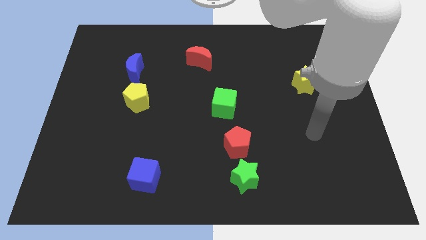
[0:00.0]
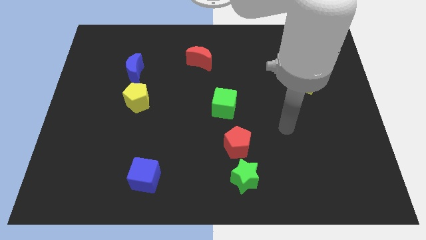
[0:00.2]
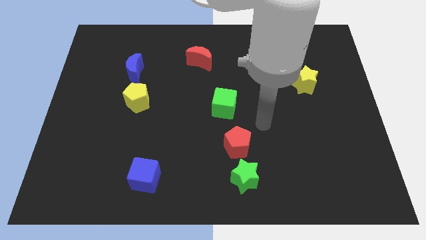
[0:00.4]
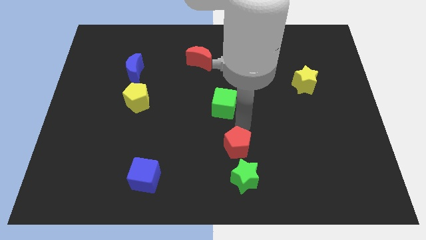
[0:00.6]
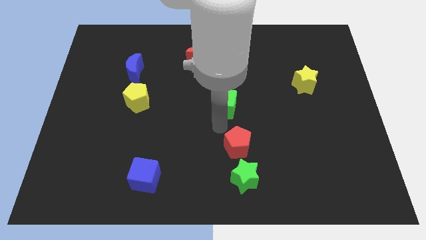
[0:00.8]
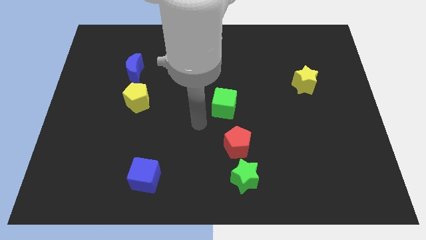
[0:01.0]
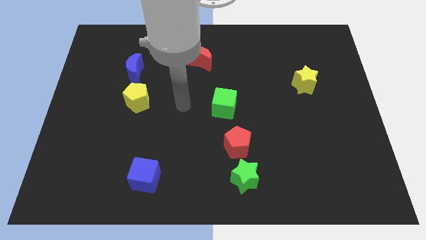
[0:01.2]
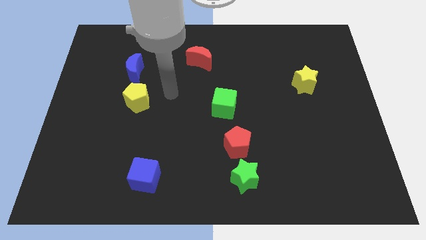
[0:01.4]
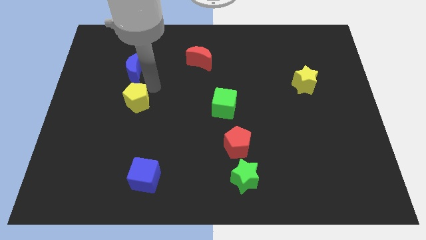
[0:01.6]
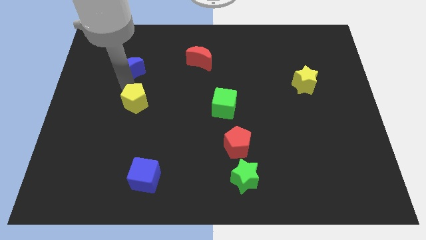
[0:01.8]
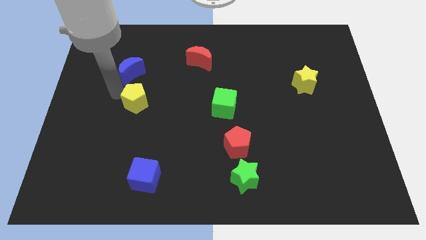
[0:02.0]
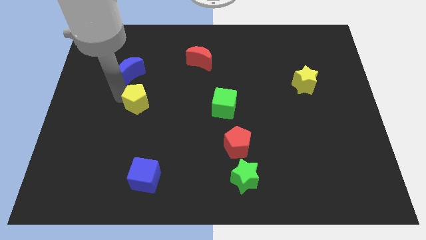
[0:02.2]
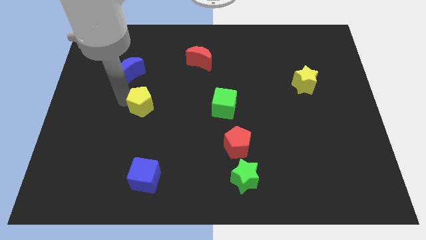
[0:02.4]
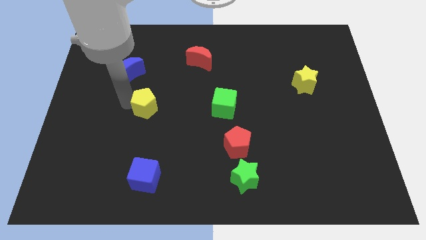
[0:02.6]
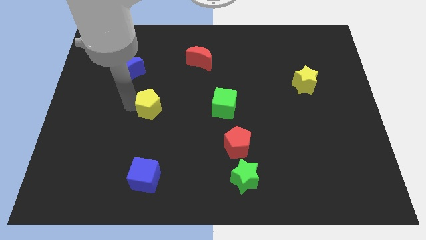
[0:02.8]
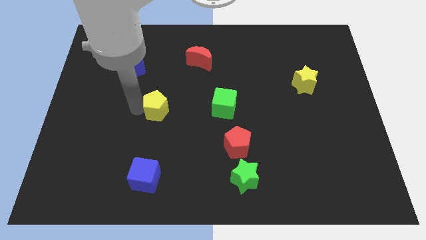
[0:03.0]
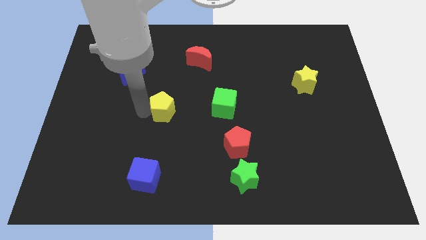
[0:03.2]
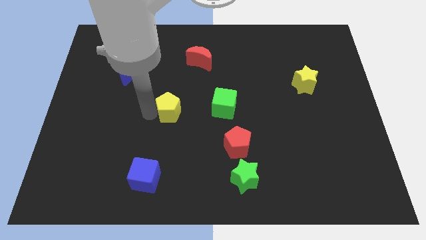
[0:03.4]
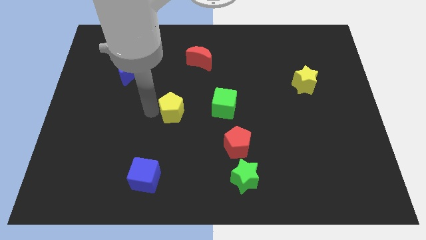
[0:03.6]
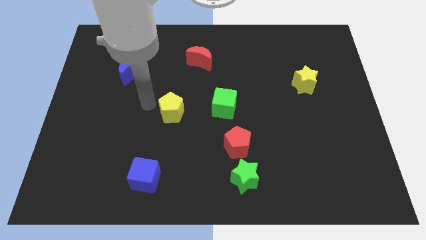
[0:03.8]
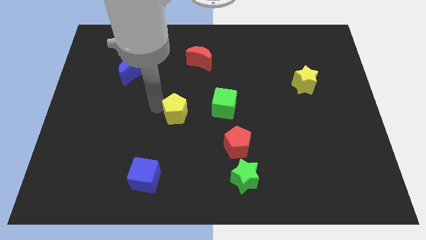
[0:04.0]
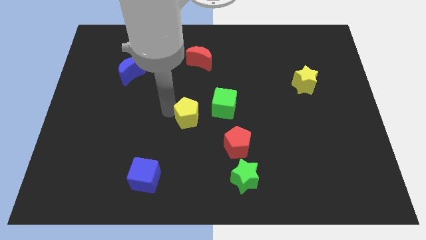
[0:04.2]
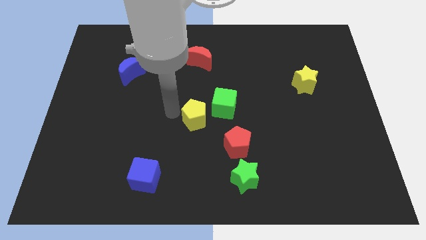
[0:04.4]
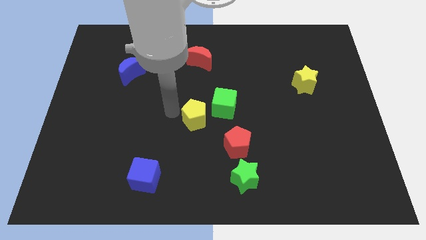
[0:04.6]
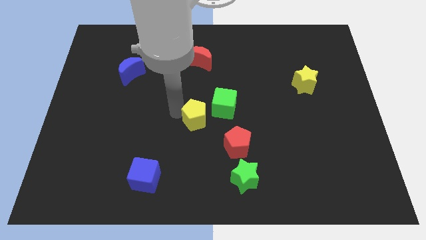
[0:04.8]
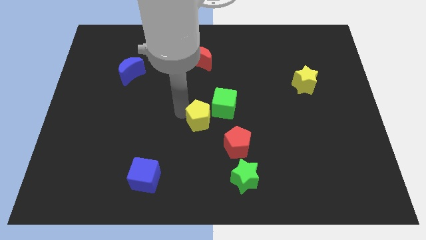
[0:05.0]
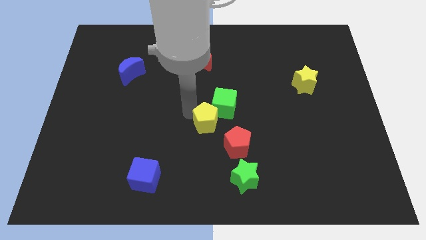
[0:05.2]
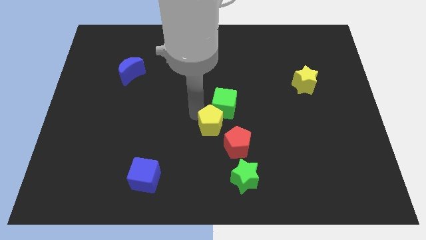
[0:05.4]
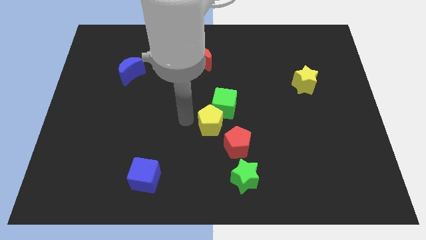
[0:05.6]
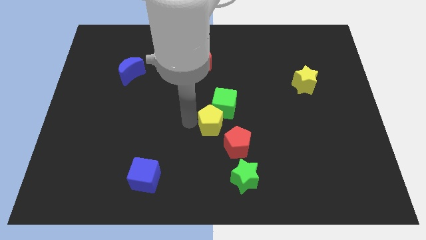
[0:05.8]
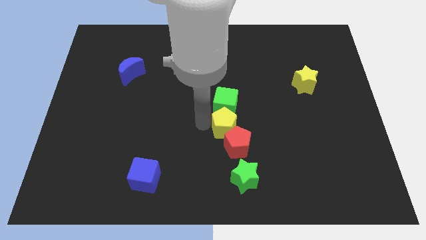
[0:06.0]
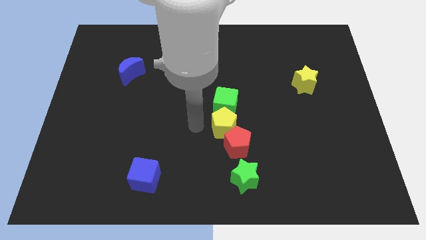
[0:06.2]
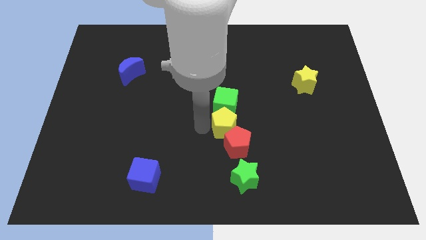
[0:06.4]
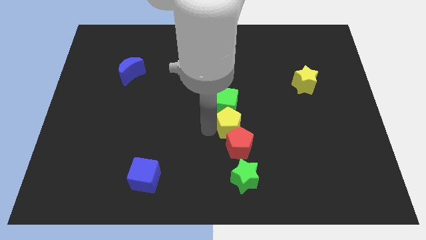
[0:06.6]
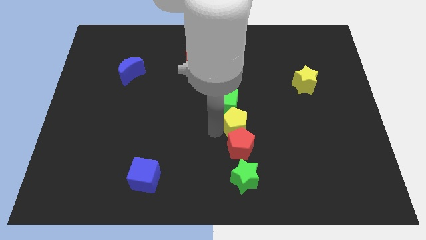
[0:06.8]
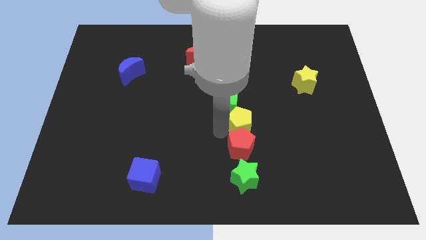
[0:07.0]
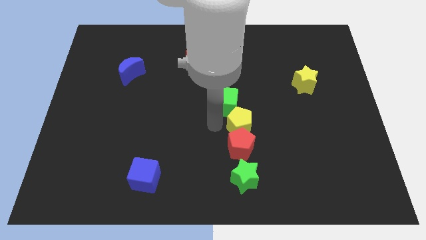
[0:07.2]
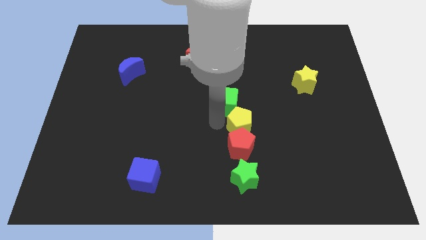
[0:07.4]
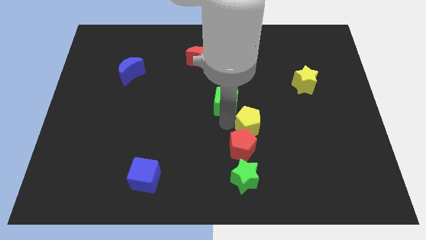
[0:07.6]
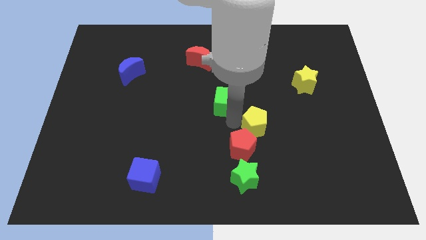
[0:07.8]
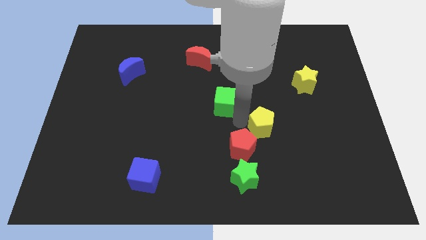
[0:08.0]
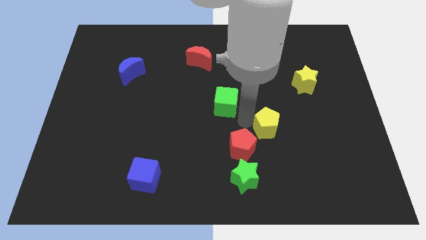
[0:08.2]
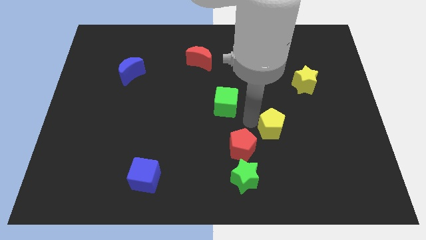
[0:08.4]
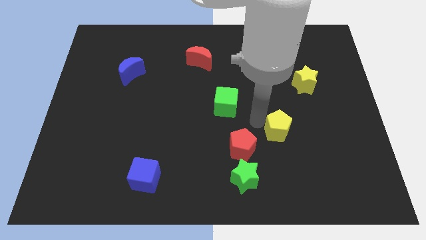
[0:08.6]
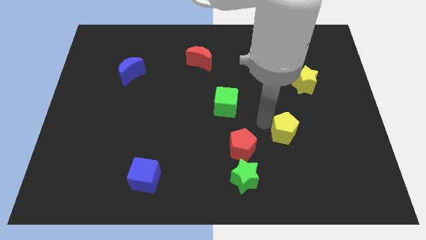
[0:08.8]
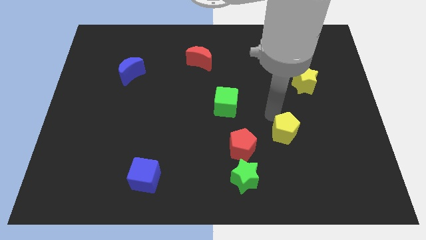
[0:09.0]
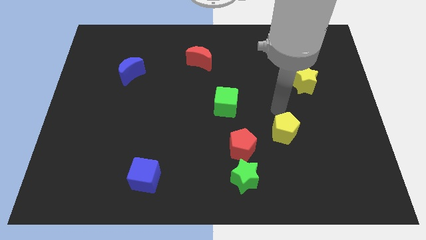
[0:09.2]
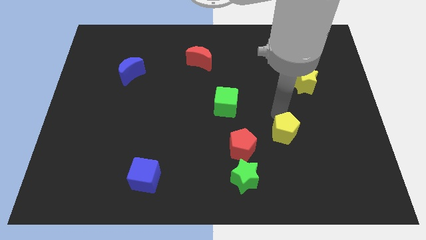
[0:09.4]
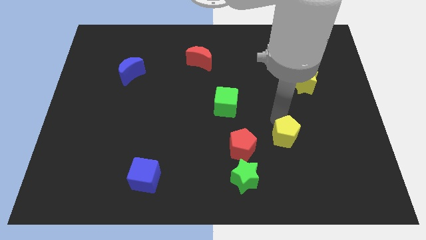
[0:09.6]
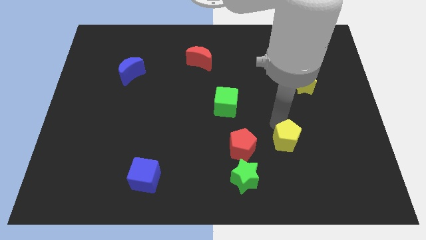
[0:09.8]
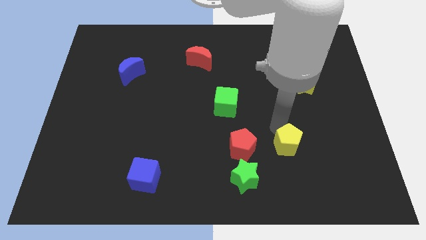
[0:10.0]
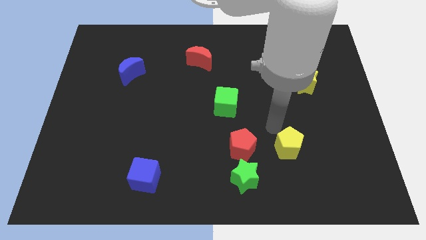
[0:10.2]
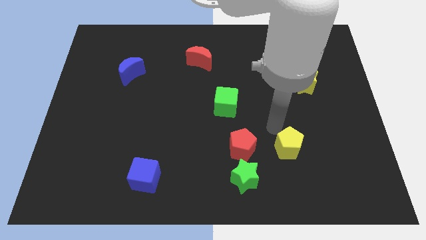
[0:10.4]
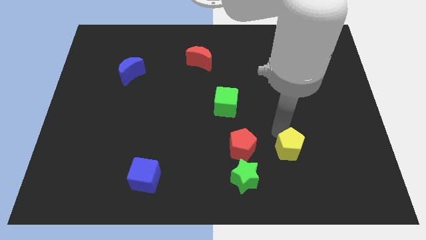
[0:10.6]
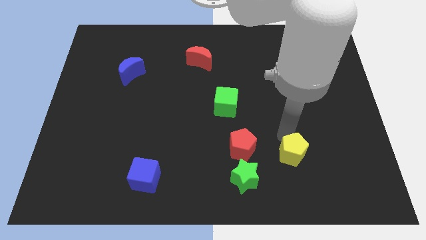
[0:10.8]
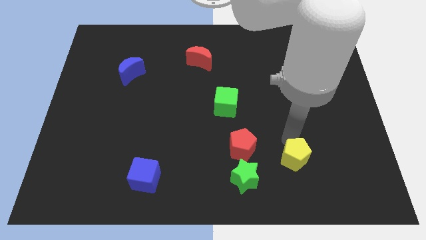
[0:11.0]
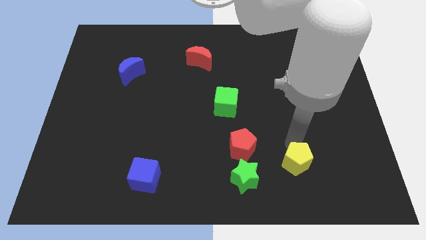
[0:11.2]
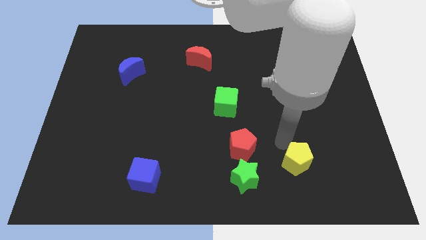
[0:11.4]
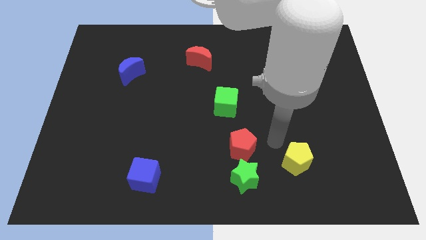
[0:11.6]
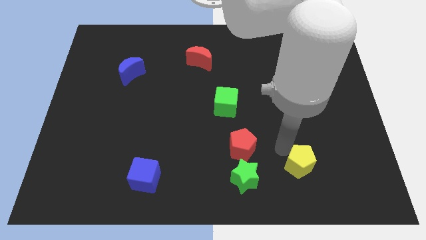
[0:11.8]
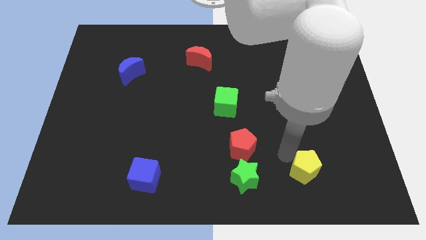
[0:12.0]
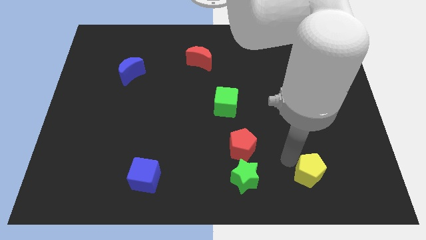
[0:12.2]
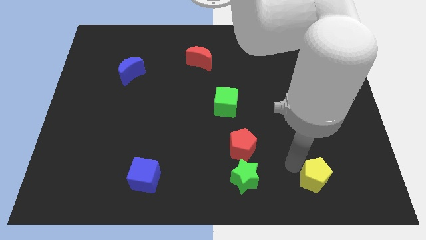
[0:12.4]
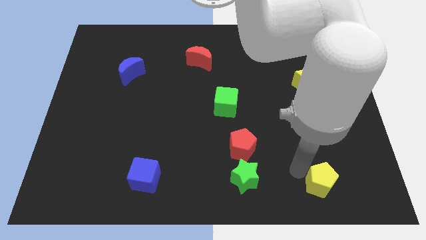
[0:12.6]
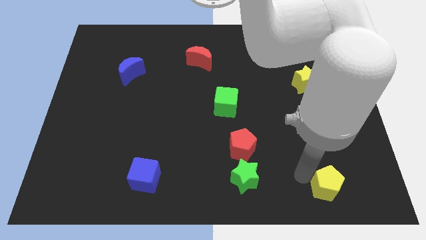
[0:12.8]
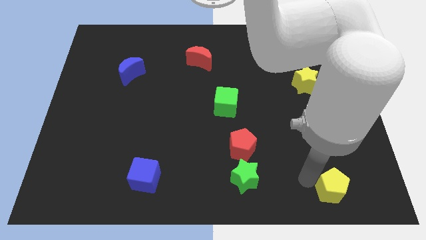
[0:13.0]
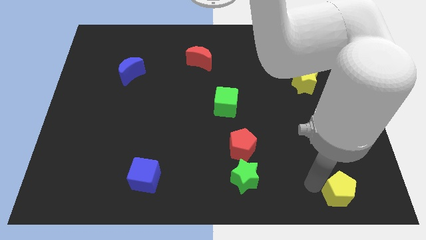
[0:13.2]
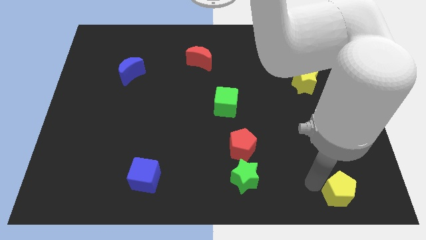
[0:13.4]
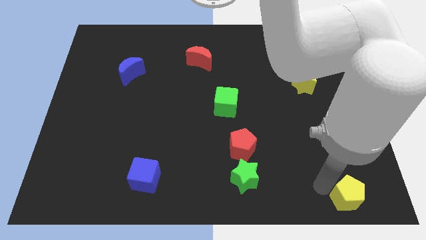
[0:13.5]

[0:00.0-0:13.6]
push the yellow pentagon to the lower right corner
